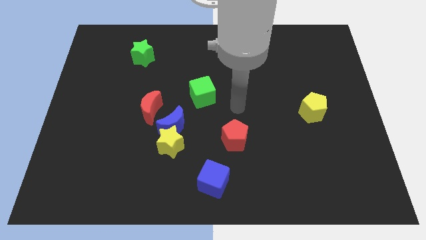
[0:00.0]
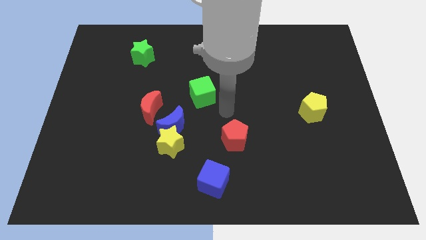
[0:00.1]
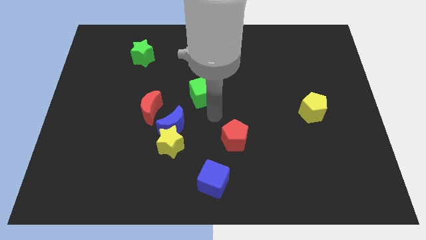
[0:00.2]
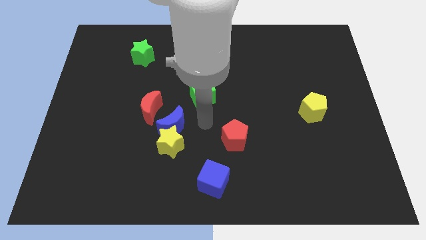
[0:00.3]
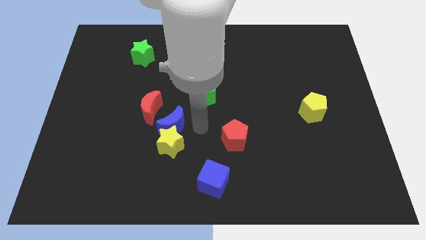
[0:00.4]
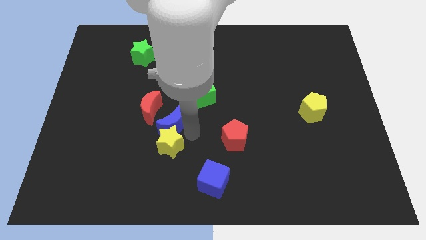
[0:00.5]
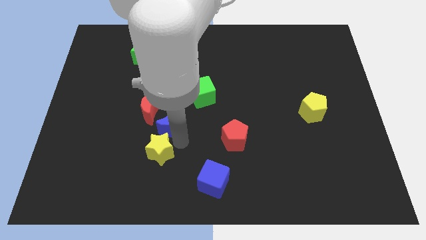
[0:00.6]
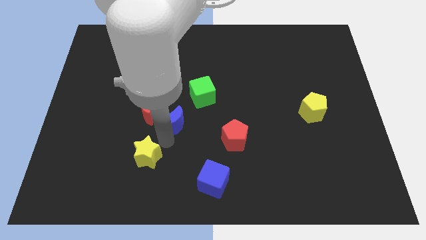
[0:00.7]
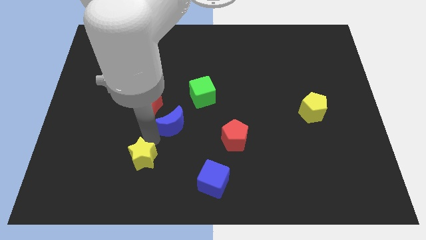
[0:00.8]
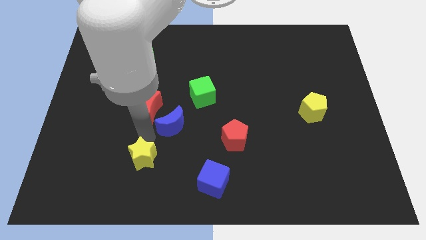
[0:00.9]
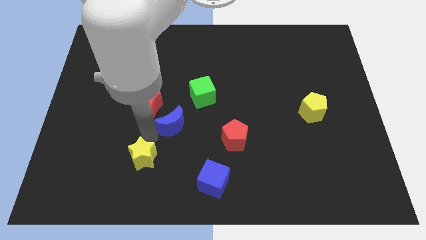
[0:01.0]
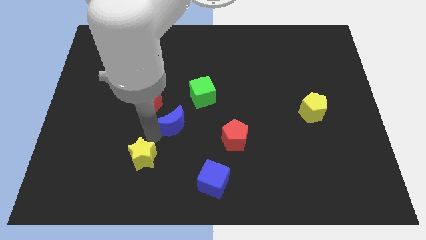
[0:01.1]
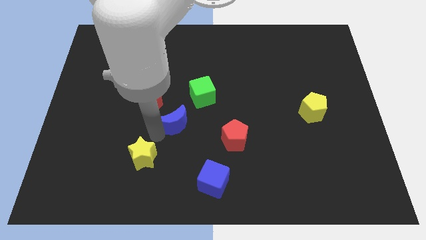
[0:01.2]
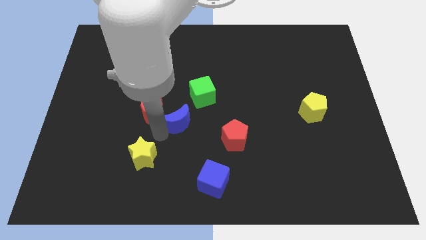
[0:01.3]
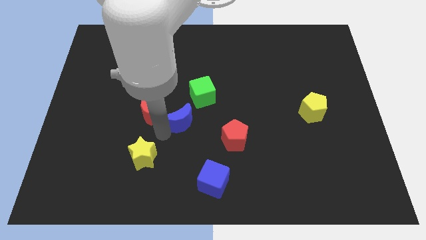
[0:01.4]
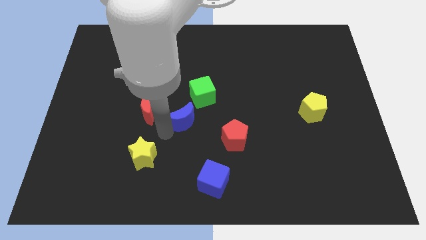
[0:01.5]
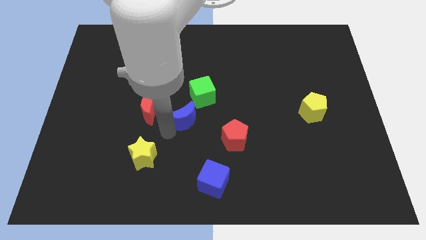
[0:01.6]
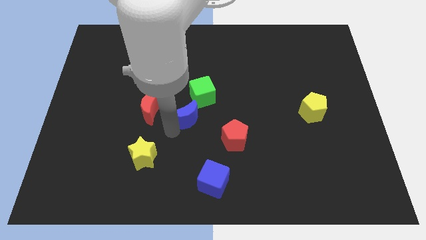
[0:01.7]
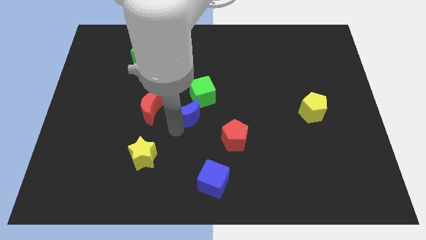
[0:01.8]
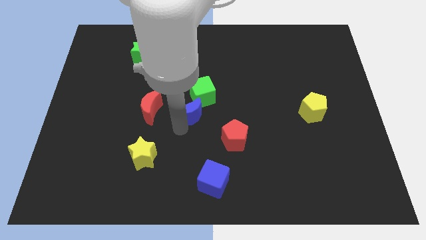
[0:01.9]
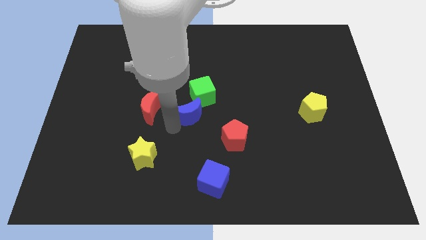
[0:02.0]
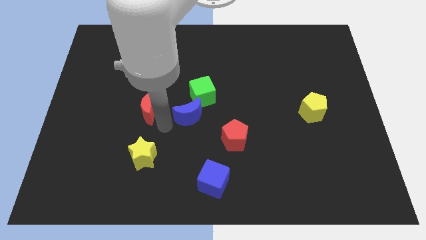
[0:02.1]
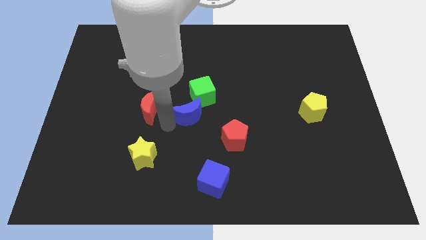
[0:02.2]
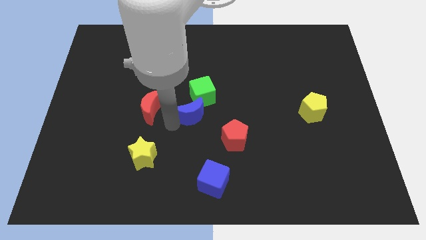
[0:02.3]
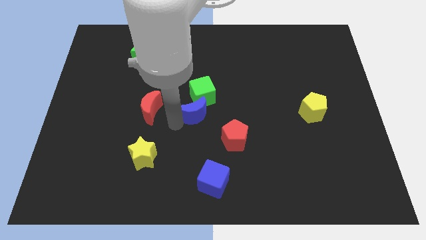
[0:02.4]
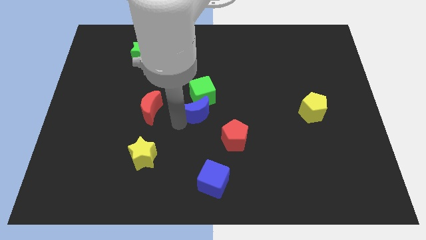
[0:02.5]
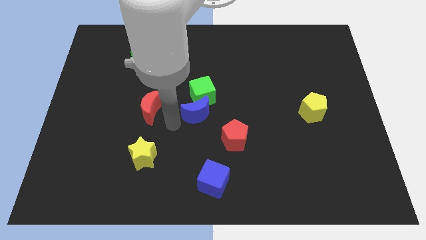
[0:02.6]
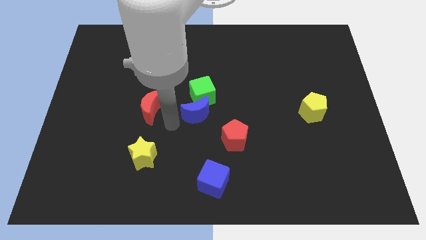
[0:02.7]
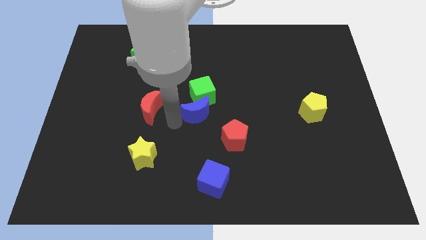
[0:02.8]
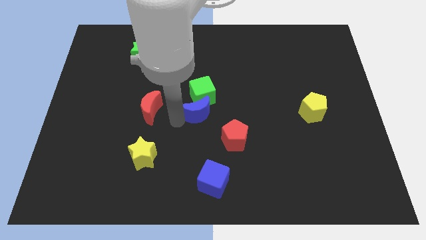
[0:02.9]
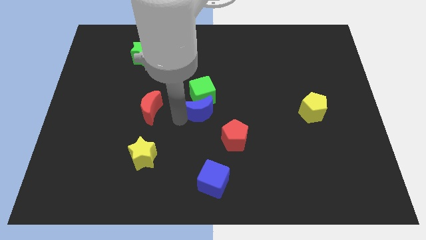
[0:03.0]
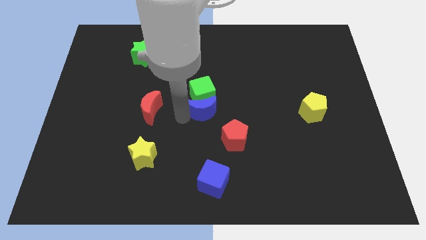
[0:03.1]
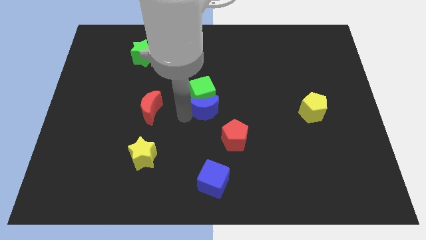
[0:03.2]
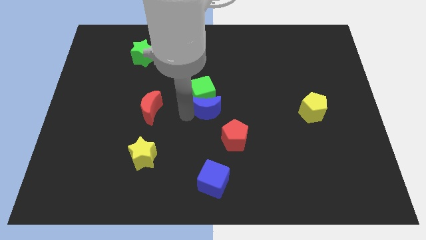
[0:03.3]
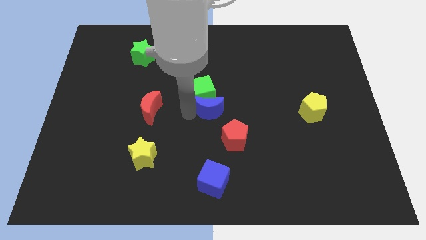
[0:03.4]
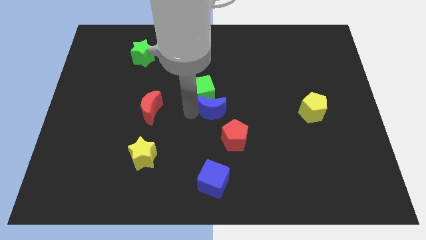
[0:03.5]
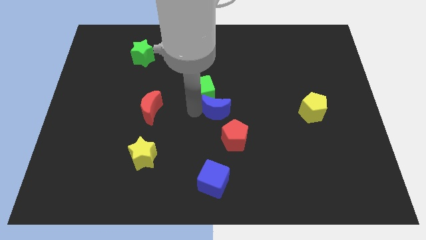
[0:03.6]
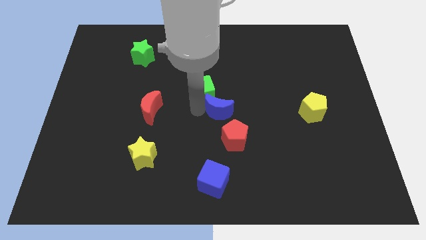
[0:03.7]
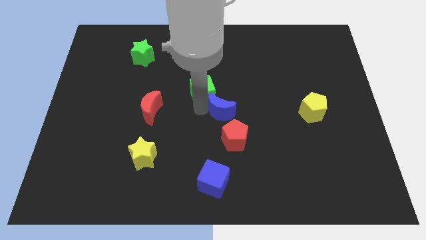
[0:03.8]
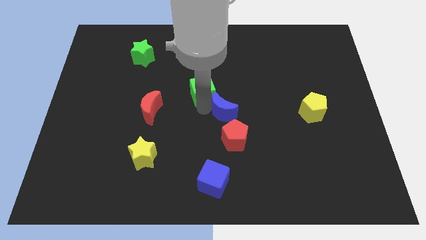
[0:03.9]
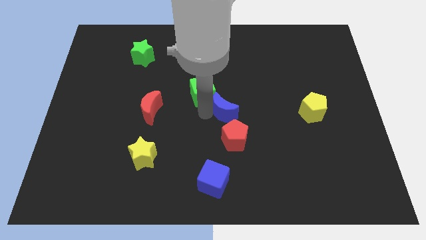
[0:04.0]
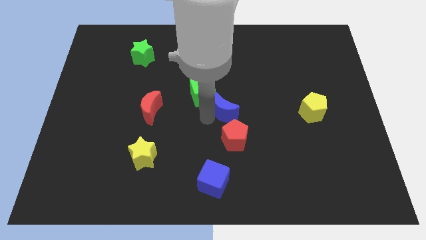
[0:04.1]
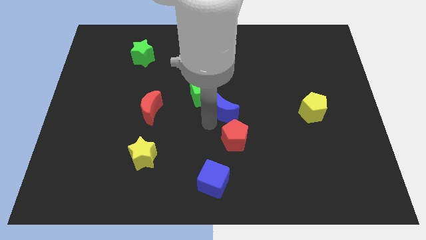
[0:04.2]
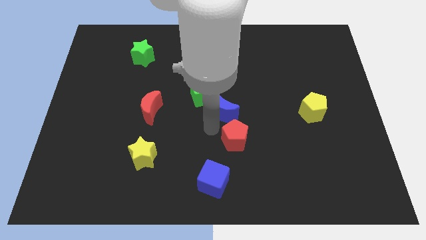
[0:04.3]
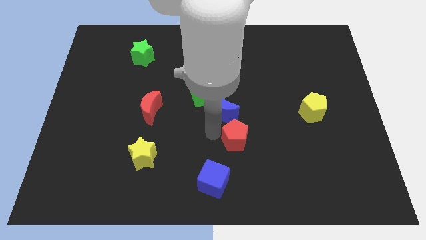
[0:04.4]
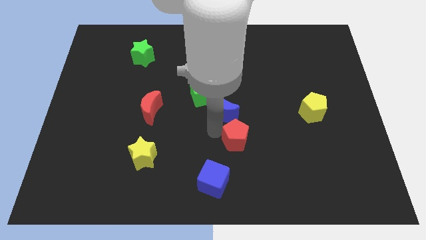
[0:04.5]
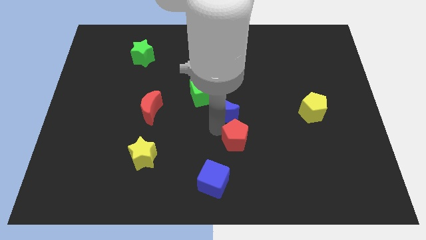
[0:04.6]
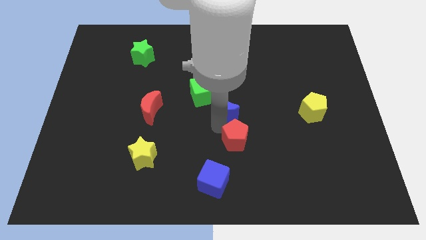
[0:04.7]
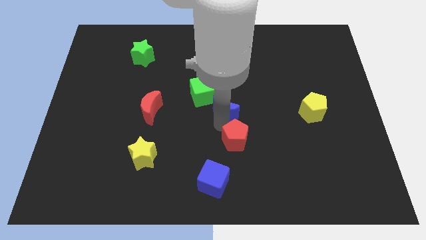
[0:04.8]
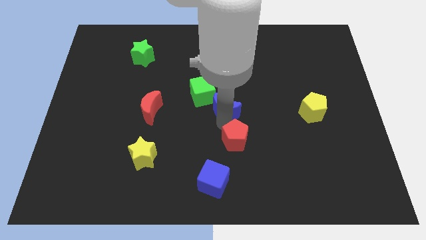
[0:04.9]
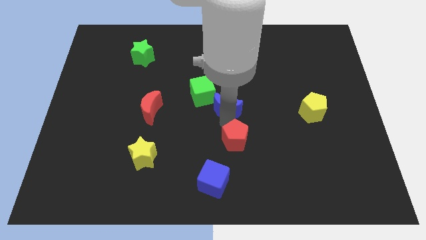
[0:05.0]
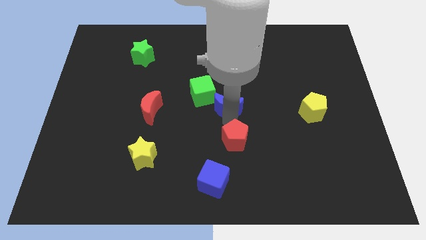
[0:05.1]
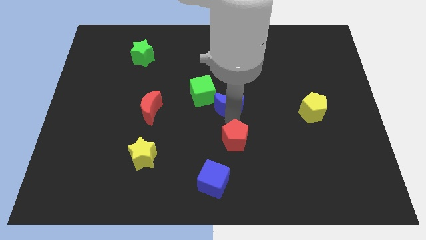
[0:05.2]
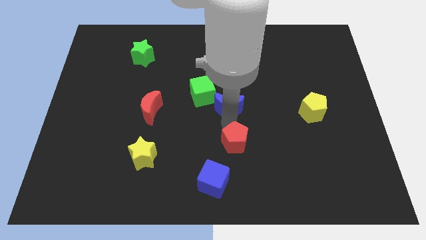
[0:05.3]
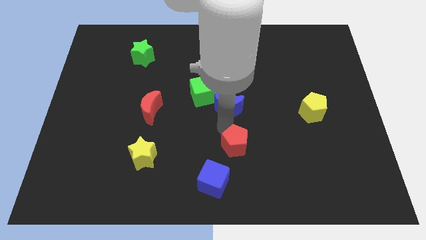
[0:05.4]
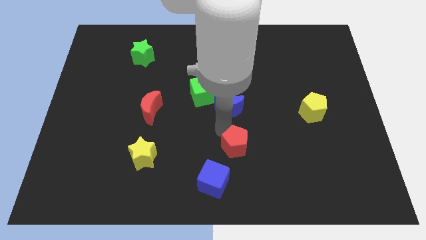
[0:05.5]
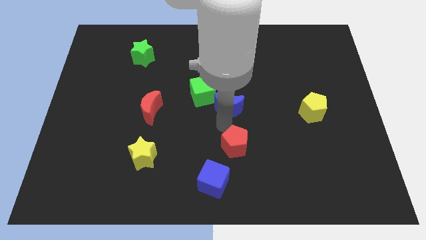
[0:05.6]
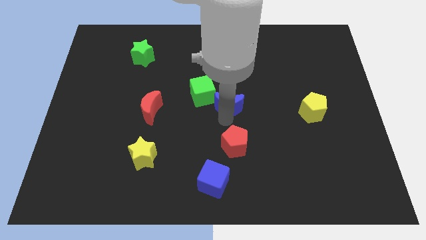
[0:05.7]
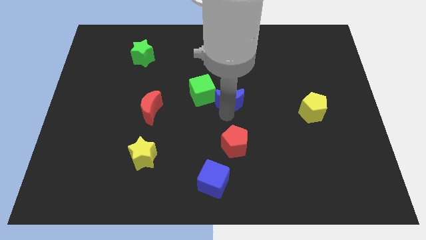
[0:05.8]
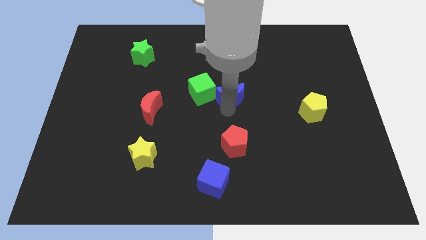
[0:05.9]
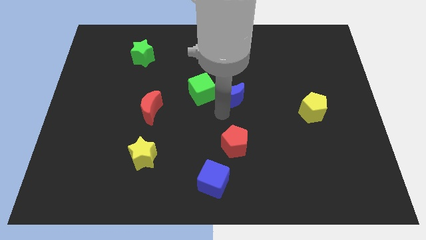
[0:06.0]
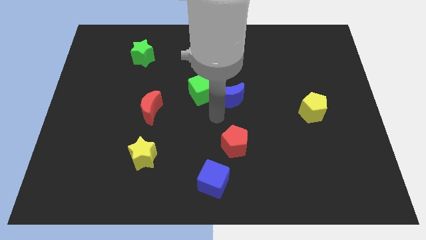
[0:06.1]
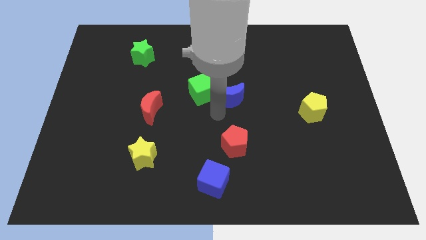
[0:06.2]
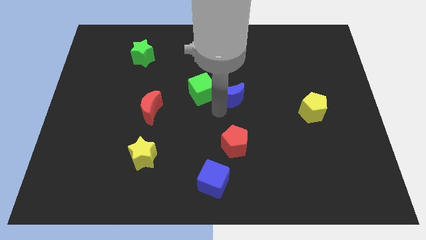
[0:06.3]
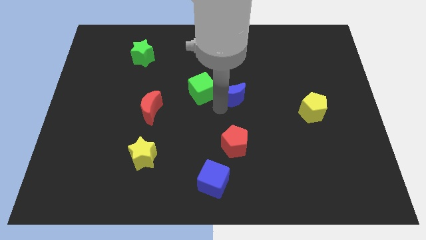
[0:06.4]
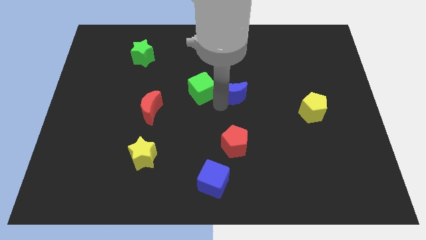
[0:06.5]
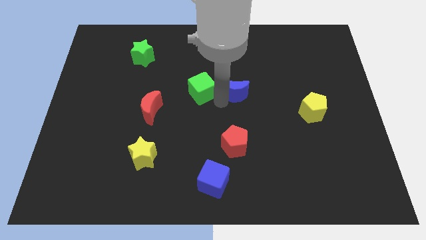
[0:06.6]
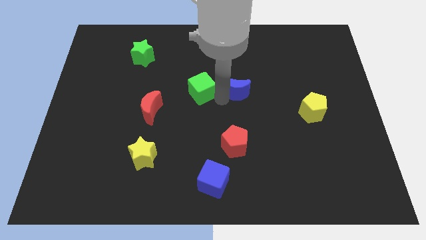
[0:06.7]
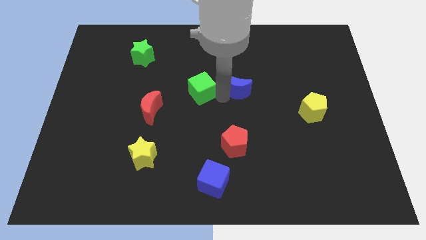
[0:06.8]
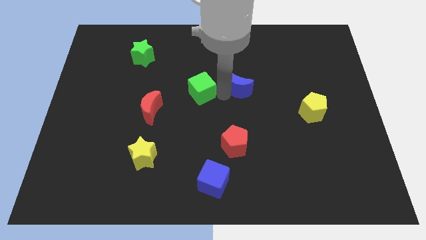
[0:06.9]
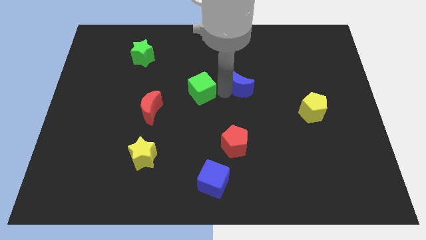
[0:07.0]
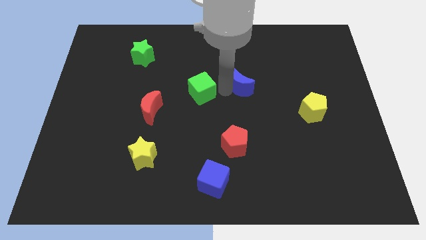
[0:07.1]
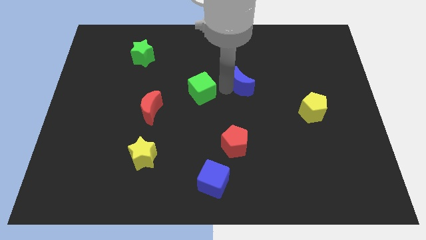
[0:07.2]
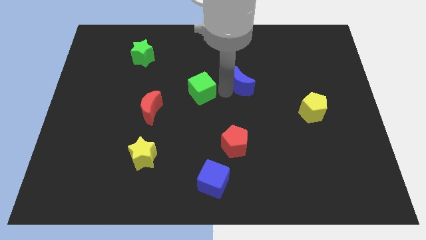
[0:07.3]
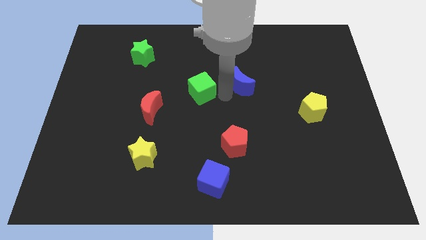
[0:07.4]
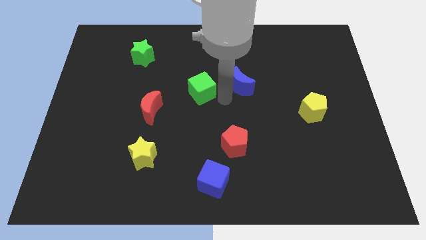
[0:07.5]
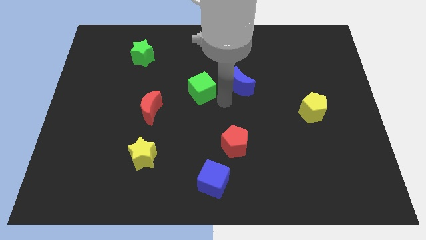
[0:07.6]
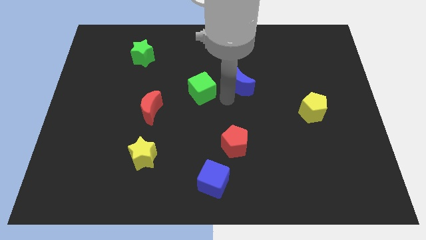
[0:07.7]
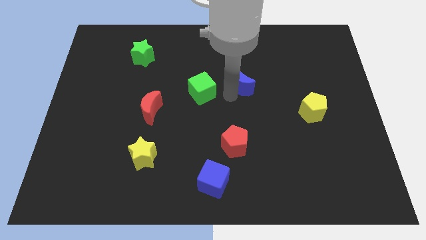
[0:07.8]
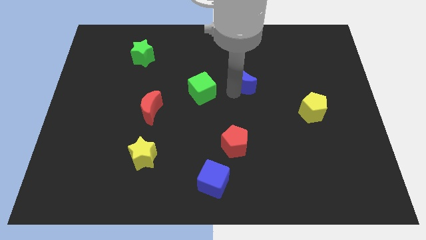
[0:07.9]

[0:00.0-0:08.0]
slide the blue moon upwards and to the right diagonally

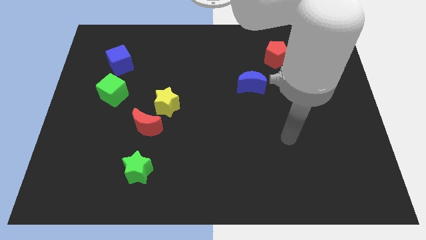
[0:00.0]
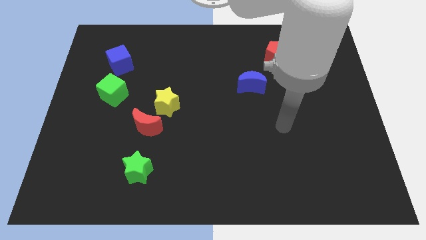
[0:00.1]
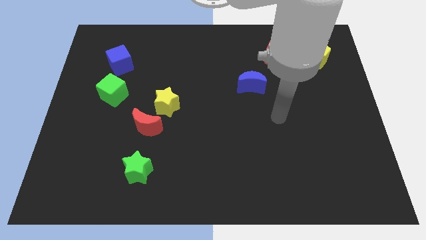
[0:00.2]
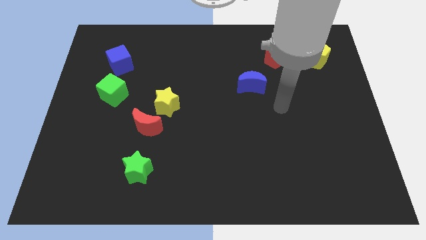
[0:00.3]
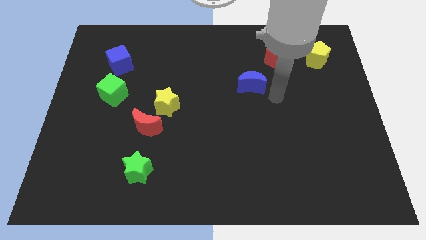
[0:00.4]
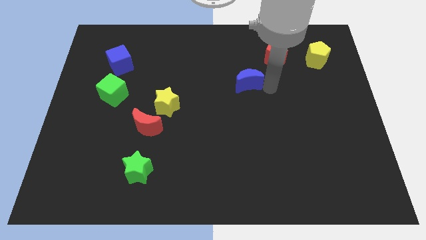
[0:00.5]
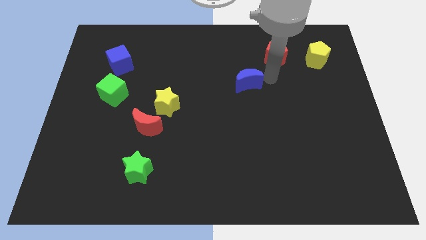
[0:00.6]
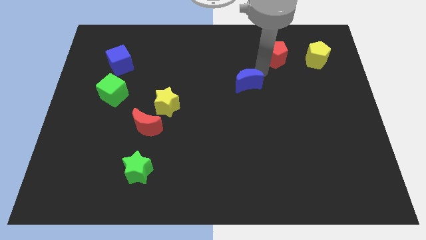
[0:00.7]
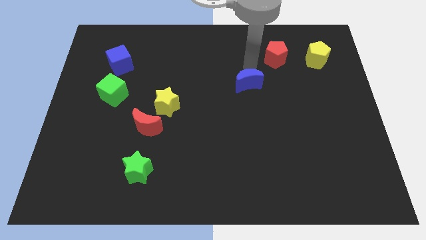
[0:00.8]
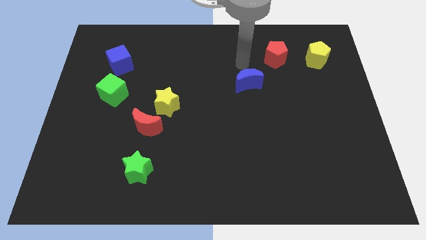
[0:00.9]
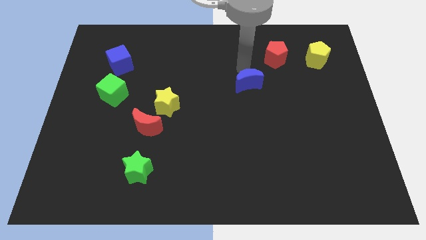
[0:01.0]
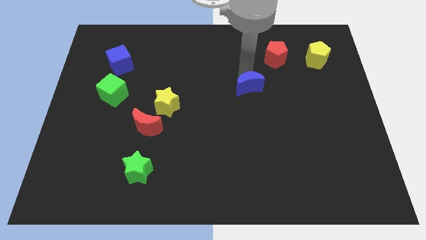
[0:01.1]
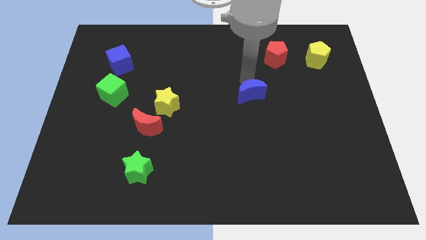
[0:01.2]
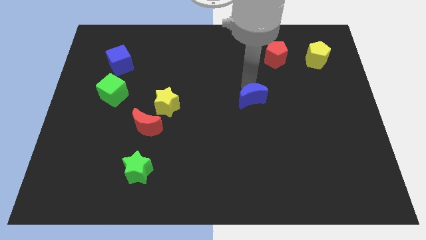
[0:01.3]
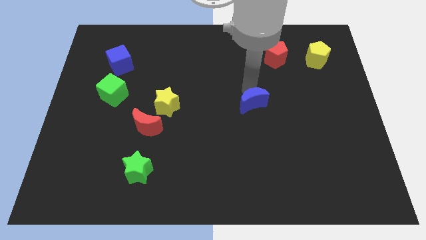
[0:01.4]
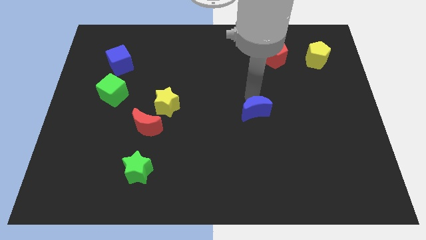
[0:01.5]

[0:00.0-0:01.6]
slightly slide the blue moon downwards
